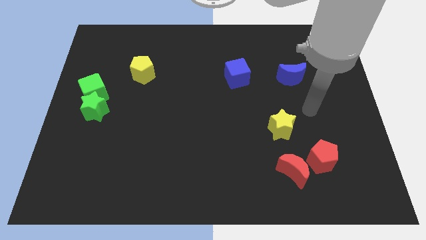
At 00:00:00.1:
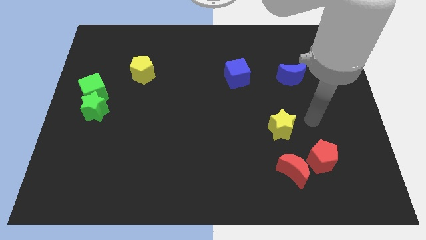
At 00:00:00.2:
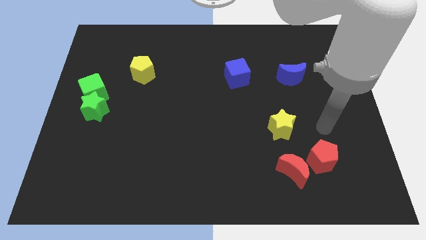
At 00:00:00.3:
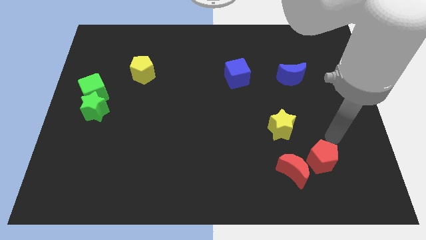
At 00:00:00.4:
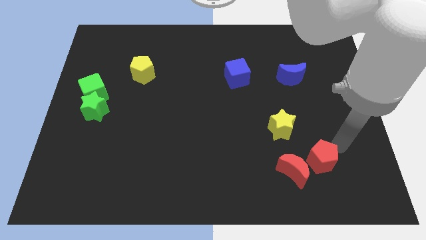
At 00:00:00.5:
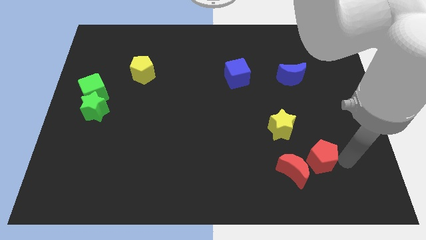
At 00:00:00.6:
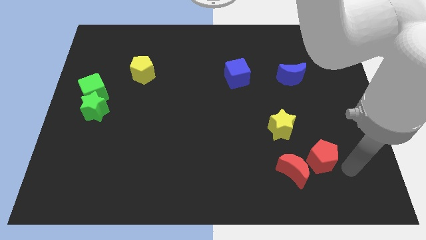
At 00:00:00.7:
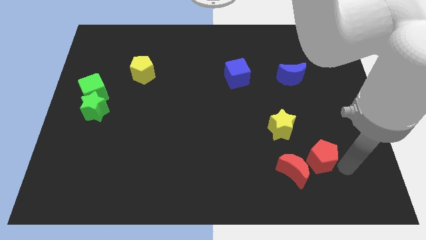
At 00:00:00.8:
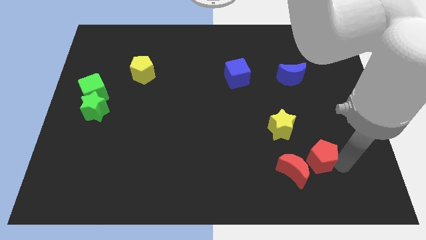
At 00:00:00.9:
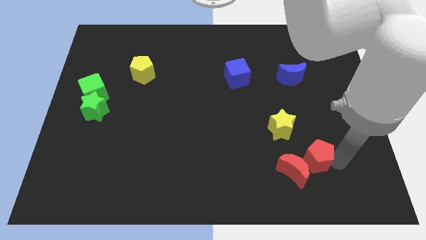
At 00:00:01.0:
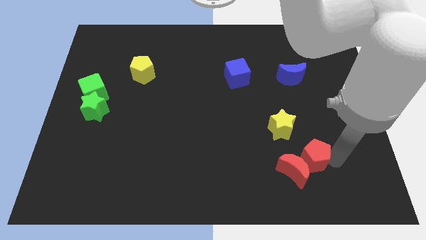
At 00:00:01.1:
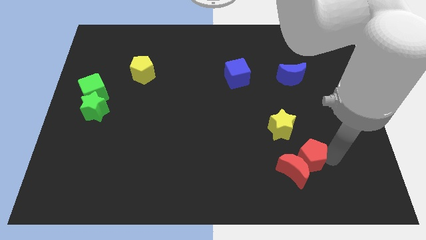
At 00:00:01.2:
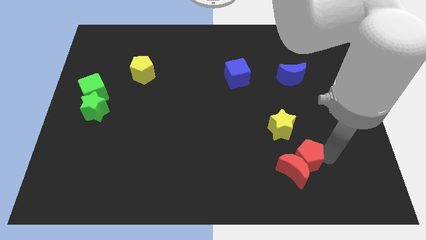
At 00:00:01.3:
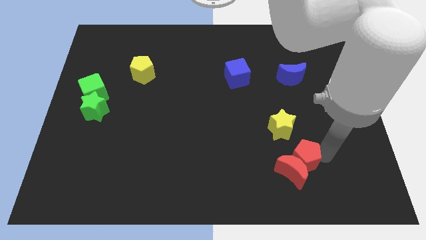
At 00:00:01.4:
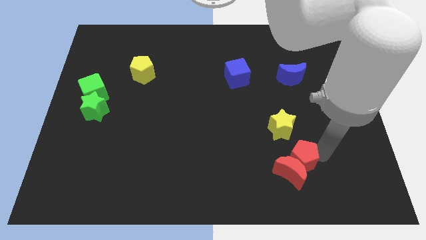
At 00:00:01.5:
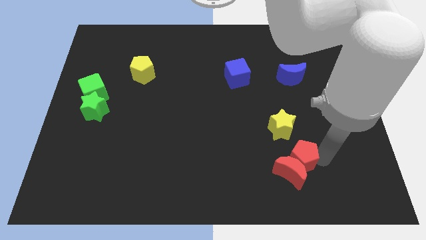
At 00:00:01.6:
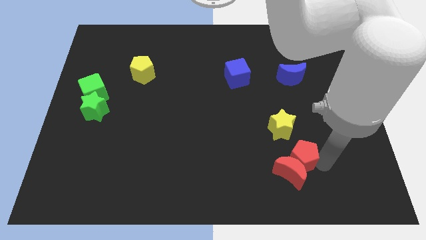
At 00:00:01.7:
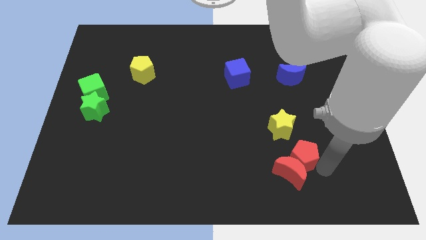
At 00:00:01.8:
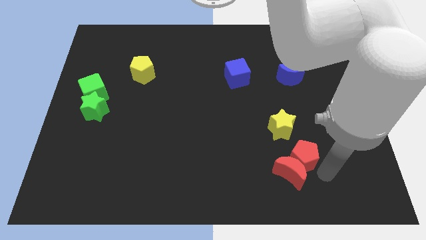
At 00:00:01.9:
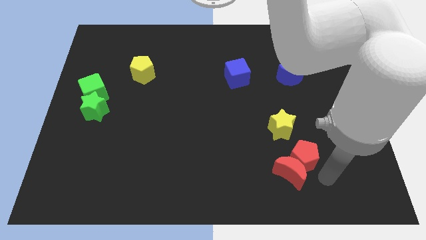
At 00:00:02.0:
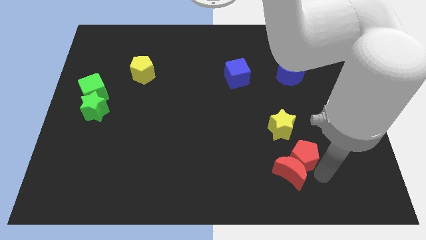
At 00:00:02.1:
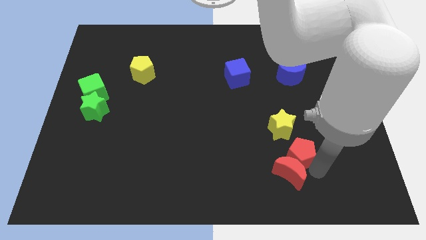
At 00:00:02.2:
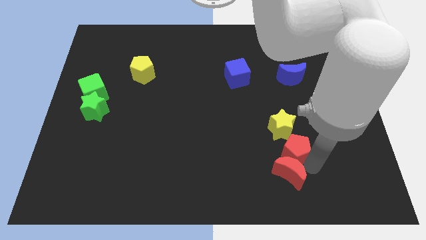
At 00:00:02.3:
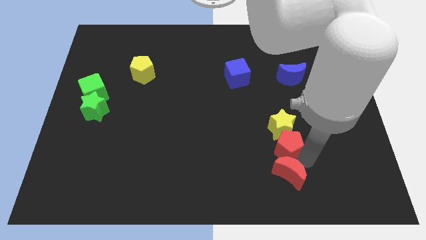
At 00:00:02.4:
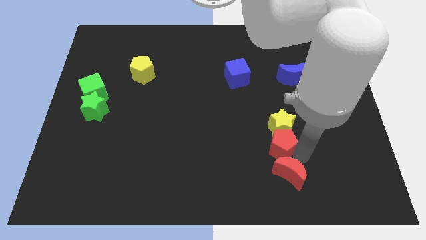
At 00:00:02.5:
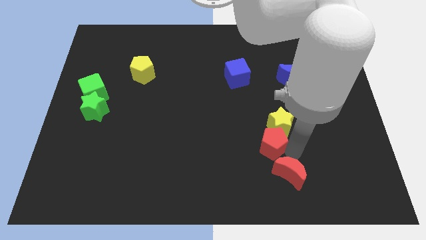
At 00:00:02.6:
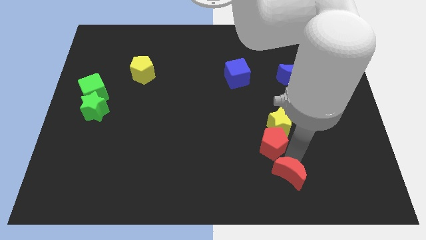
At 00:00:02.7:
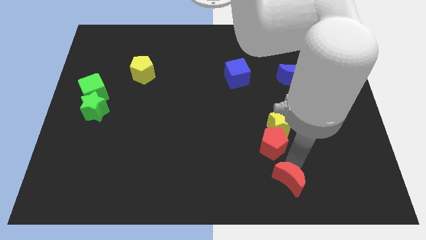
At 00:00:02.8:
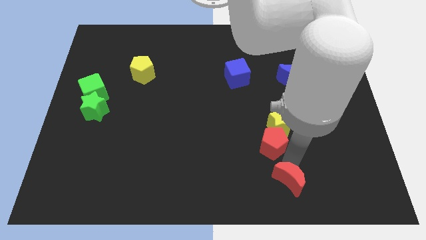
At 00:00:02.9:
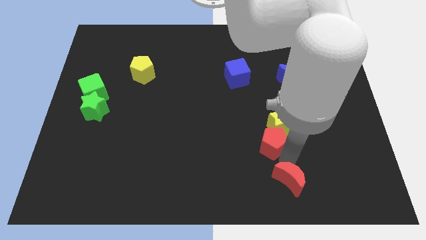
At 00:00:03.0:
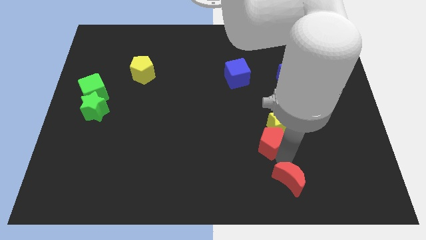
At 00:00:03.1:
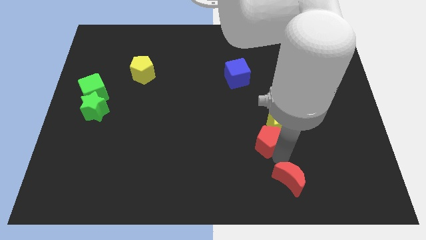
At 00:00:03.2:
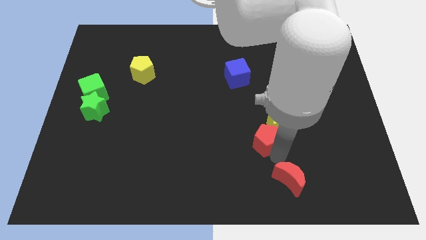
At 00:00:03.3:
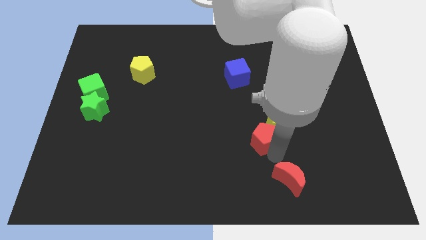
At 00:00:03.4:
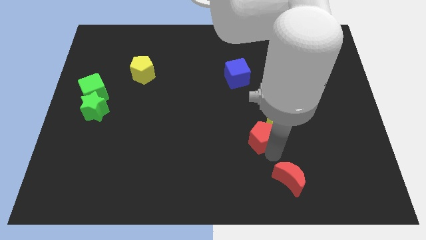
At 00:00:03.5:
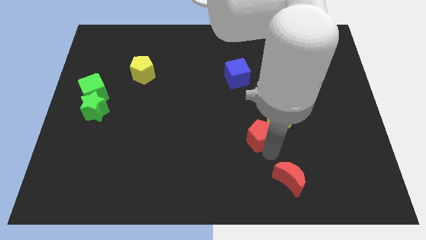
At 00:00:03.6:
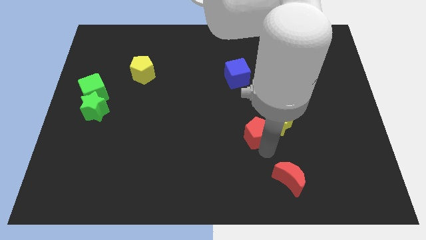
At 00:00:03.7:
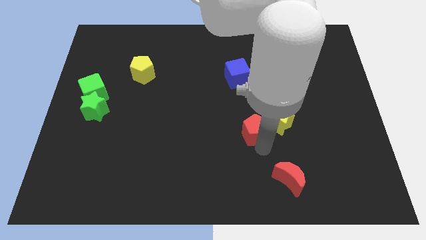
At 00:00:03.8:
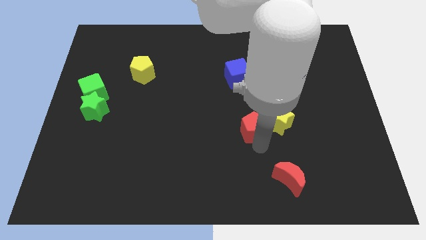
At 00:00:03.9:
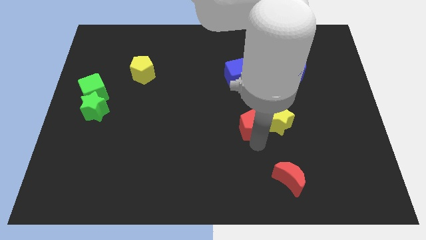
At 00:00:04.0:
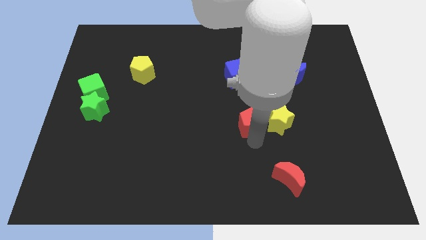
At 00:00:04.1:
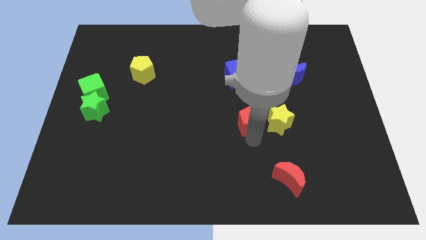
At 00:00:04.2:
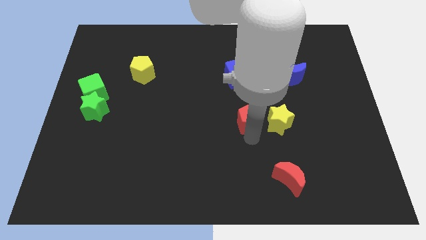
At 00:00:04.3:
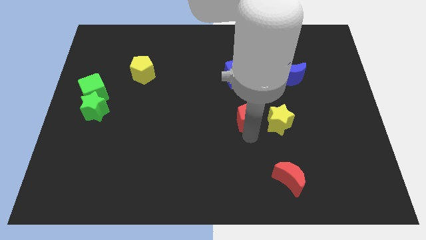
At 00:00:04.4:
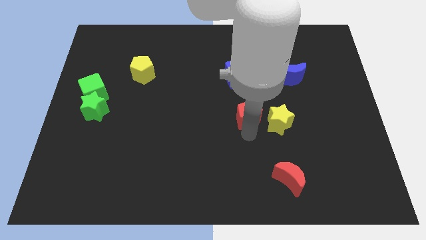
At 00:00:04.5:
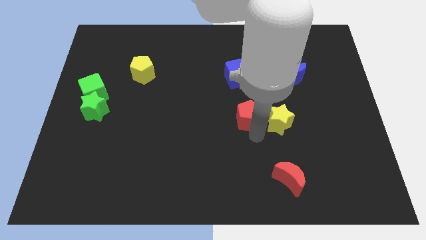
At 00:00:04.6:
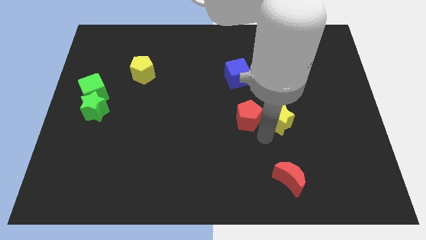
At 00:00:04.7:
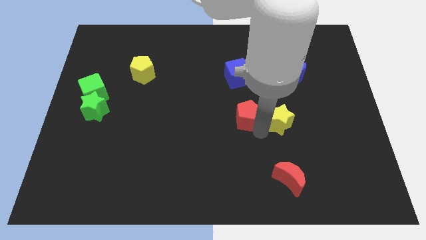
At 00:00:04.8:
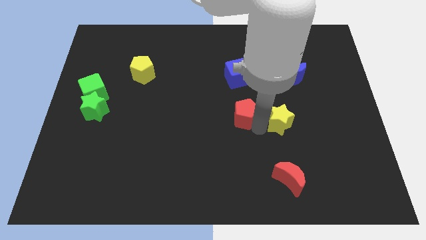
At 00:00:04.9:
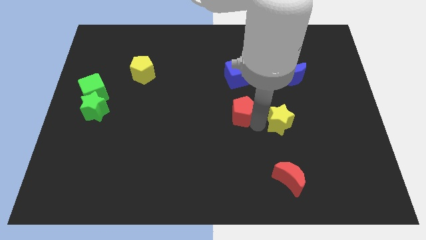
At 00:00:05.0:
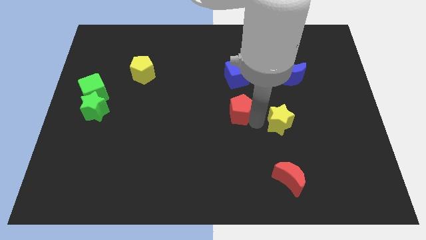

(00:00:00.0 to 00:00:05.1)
push the red pentagon diagonally up and to the left

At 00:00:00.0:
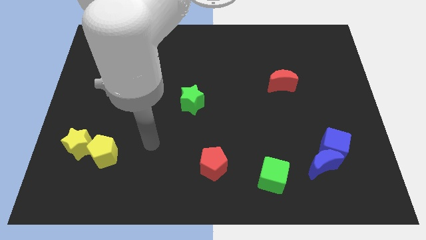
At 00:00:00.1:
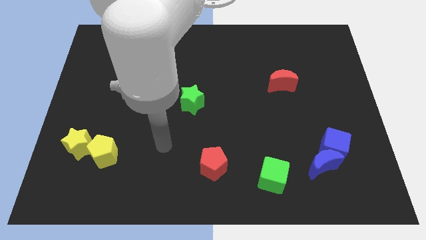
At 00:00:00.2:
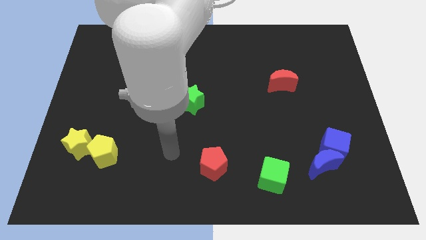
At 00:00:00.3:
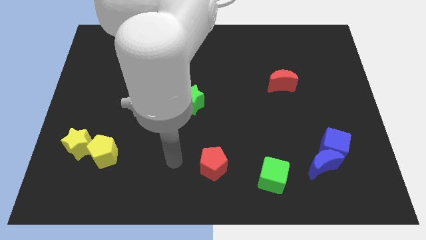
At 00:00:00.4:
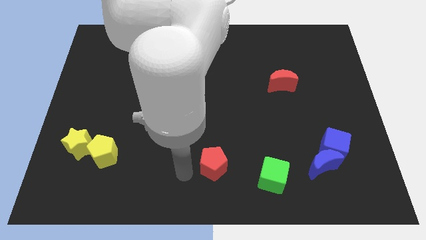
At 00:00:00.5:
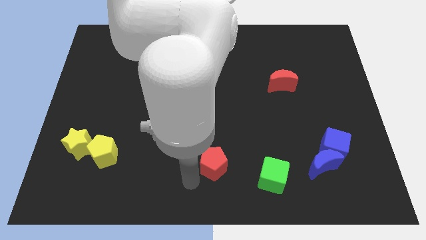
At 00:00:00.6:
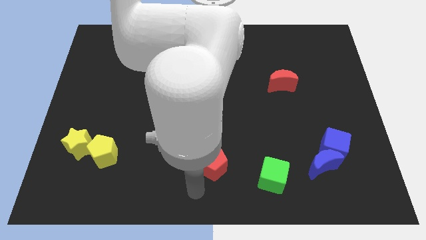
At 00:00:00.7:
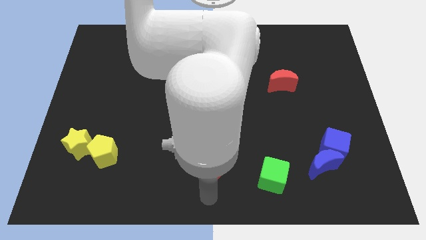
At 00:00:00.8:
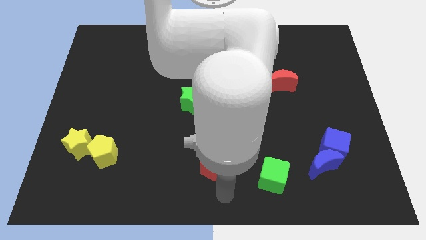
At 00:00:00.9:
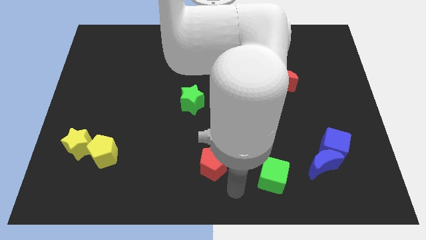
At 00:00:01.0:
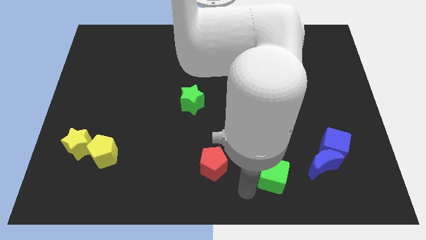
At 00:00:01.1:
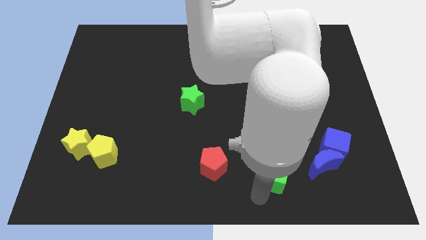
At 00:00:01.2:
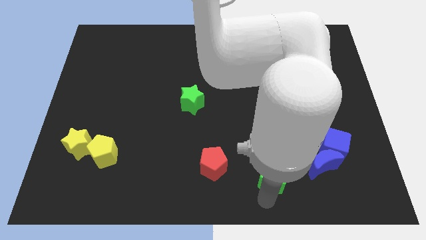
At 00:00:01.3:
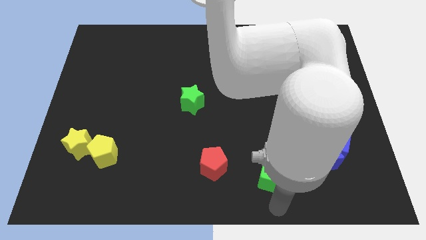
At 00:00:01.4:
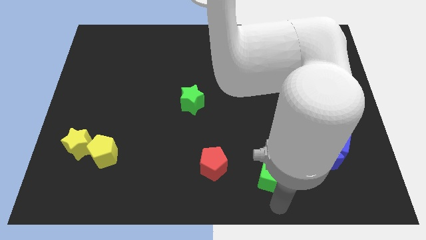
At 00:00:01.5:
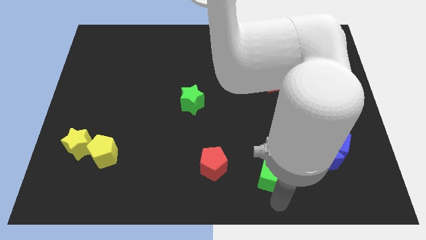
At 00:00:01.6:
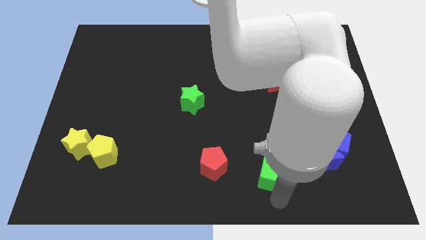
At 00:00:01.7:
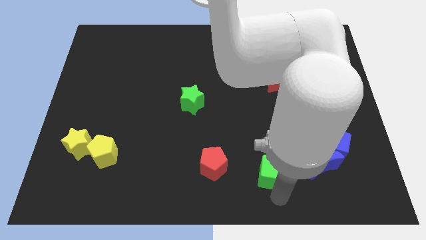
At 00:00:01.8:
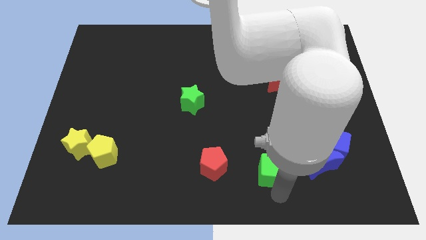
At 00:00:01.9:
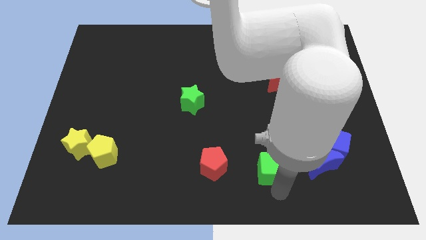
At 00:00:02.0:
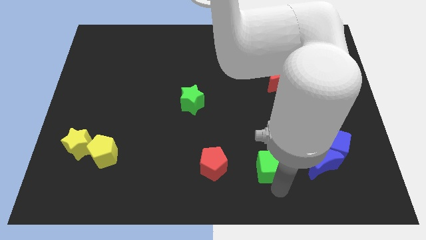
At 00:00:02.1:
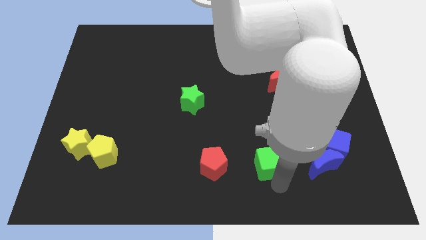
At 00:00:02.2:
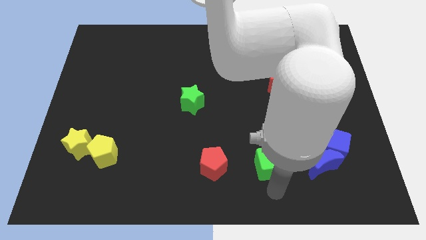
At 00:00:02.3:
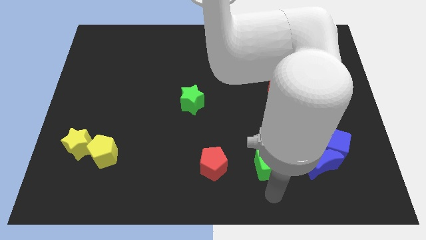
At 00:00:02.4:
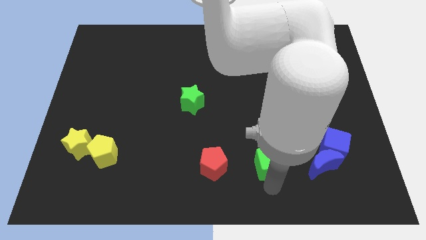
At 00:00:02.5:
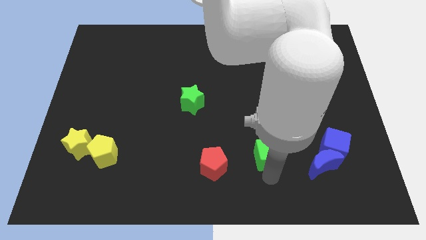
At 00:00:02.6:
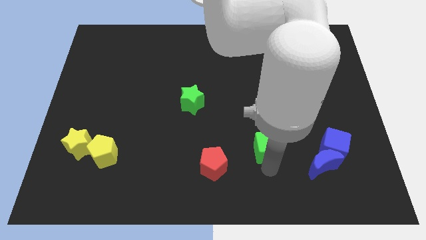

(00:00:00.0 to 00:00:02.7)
move the green cube upwards a bit
